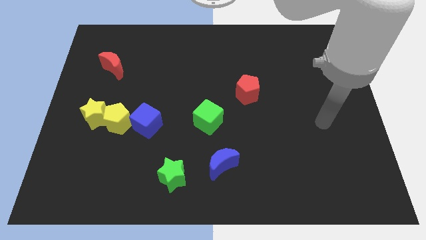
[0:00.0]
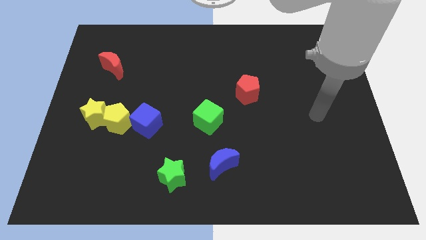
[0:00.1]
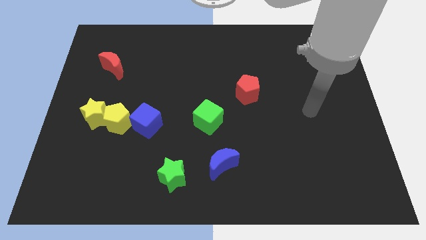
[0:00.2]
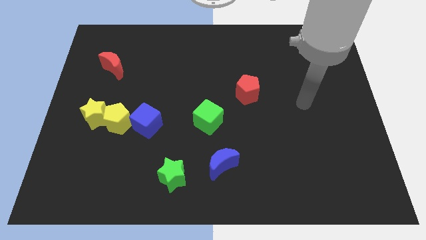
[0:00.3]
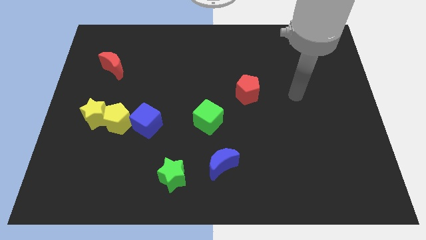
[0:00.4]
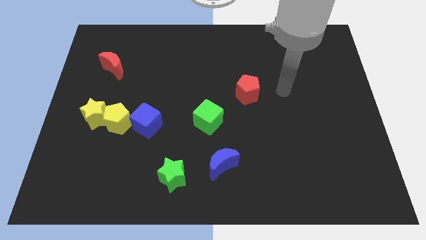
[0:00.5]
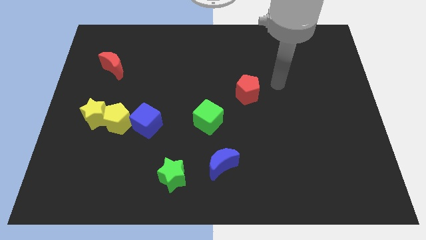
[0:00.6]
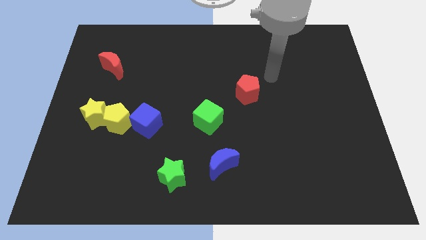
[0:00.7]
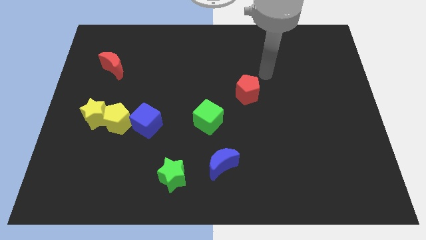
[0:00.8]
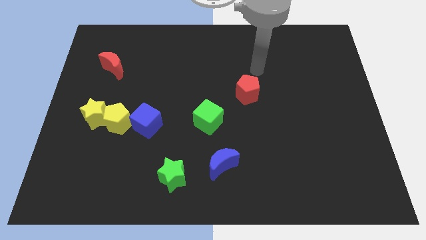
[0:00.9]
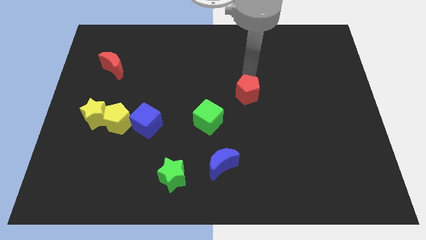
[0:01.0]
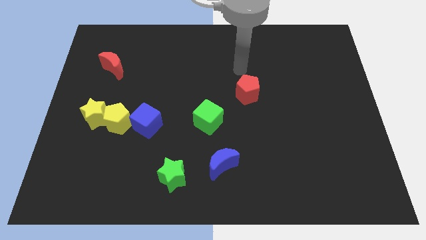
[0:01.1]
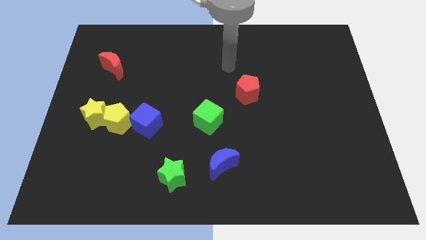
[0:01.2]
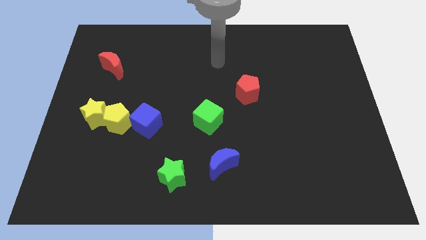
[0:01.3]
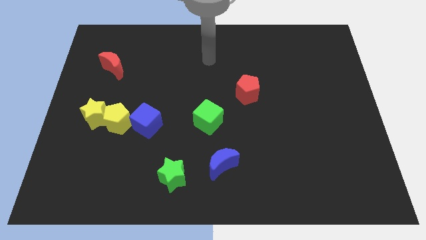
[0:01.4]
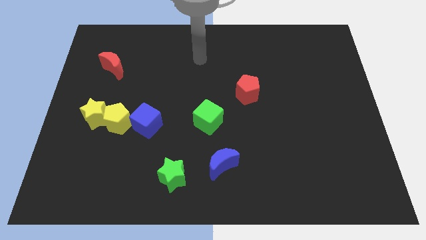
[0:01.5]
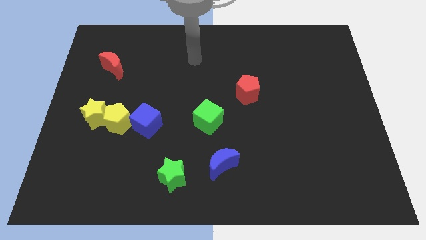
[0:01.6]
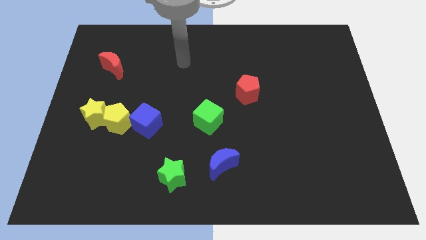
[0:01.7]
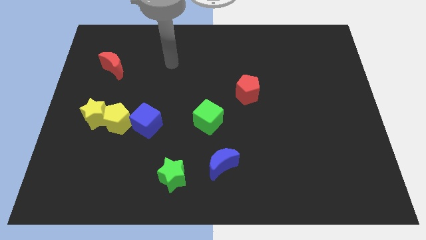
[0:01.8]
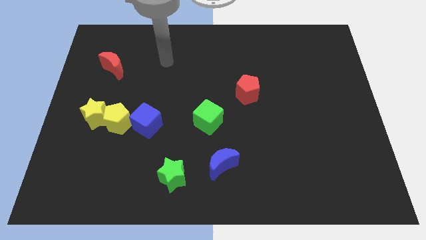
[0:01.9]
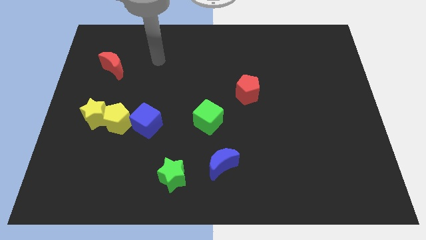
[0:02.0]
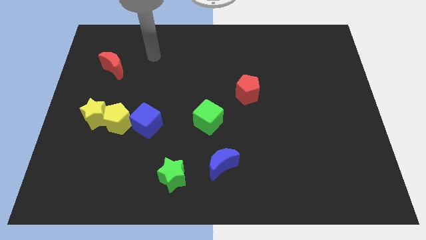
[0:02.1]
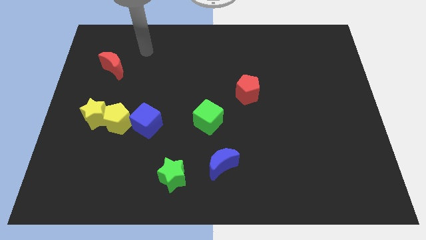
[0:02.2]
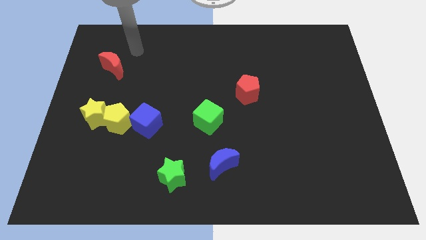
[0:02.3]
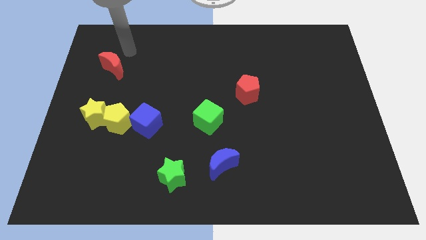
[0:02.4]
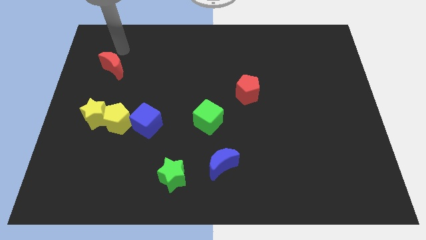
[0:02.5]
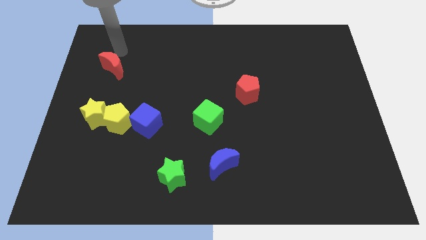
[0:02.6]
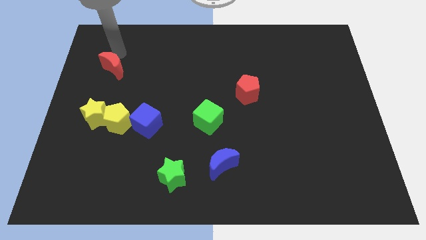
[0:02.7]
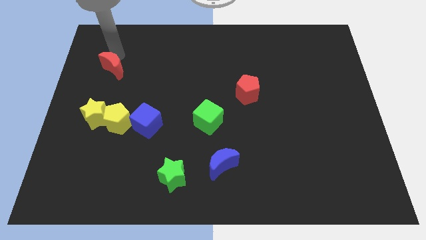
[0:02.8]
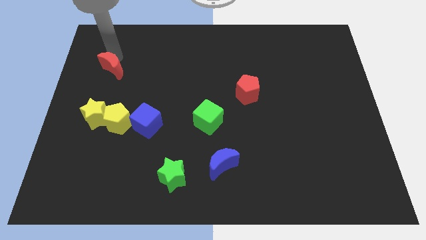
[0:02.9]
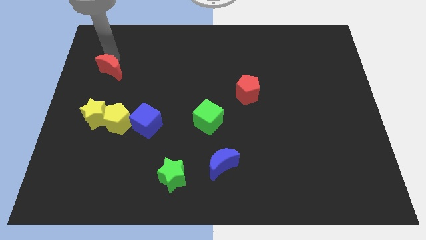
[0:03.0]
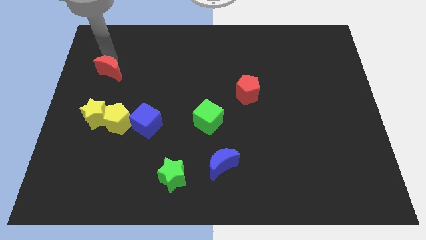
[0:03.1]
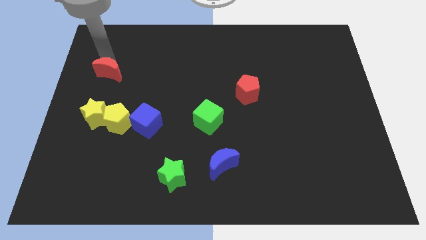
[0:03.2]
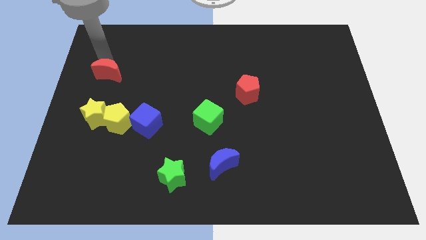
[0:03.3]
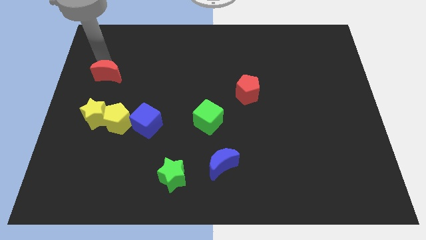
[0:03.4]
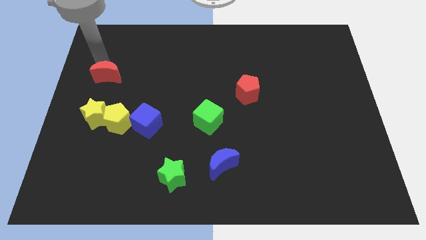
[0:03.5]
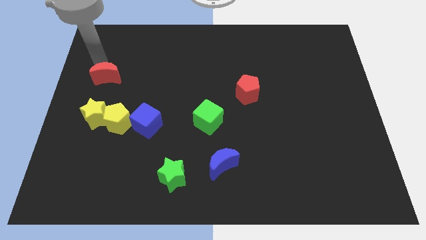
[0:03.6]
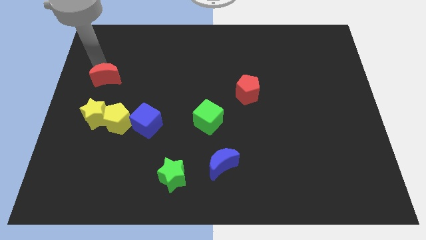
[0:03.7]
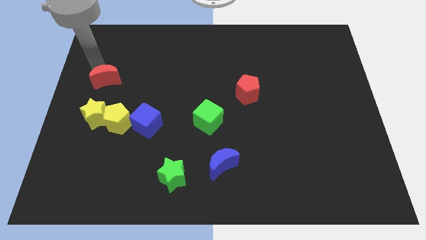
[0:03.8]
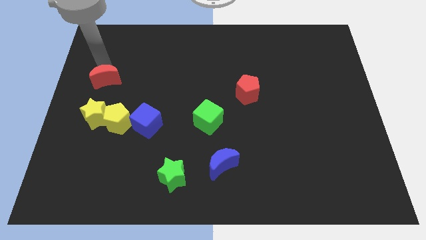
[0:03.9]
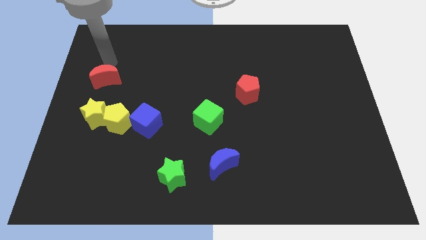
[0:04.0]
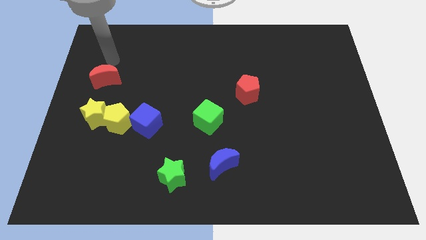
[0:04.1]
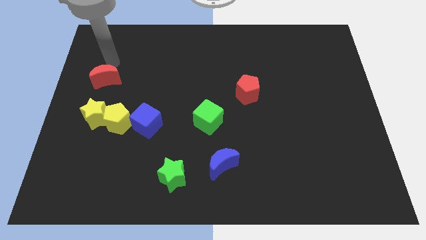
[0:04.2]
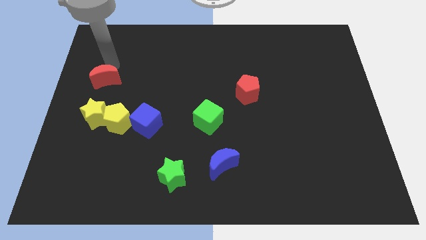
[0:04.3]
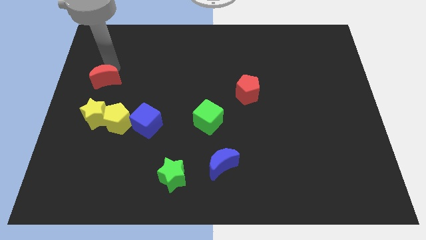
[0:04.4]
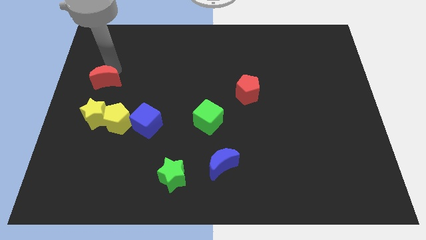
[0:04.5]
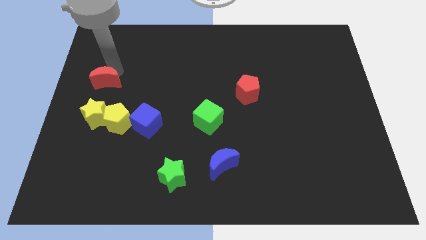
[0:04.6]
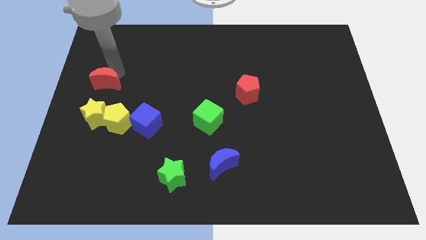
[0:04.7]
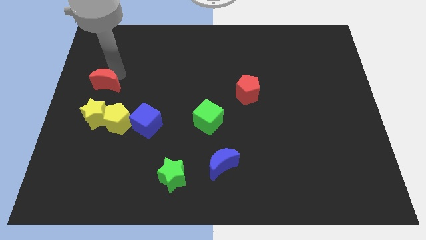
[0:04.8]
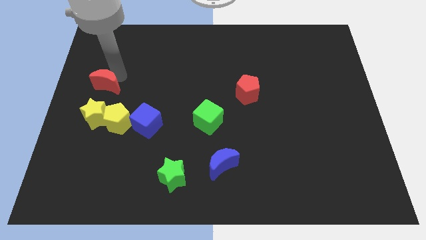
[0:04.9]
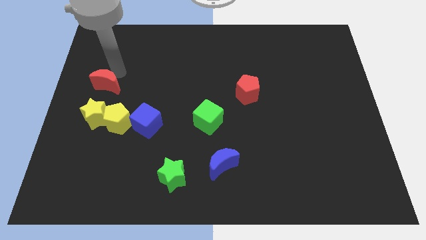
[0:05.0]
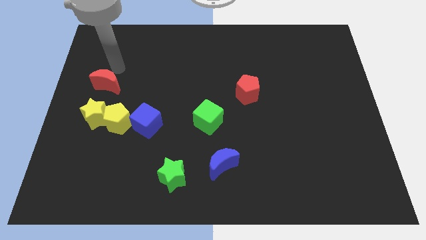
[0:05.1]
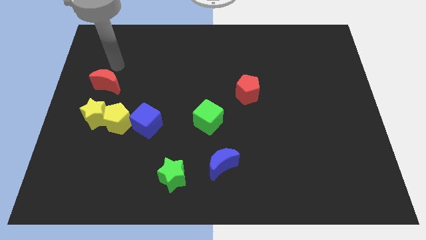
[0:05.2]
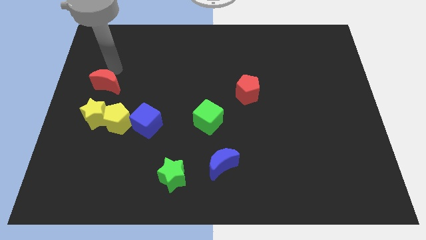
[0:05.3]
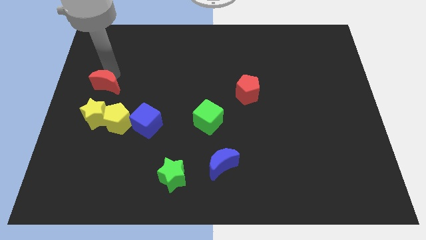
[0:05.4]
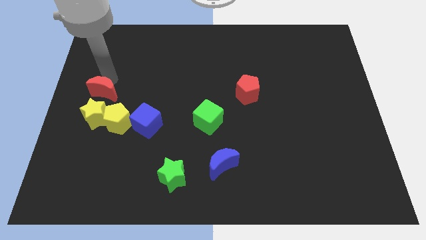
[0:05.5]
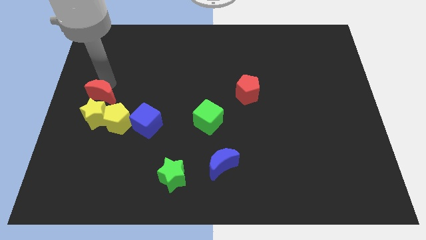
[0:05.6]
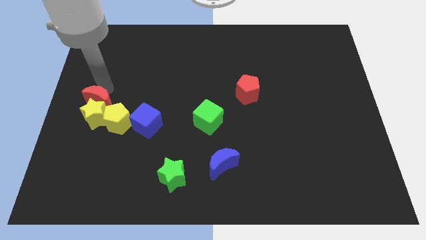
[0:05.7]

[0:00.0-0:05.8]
move the red moon towards the yellow star

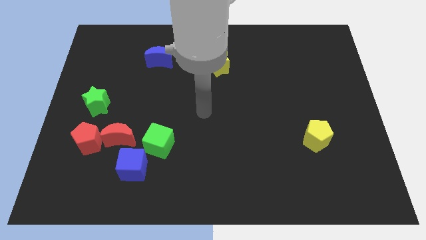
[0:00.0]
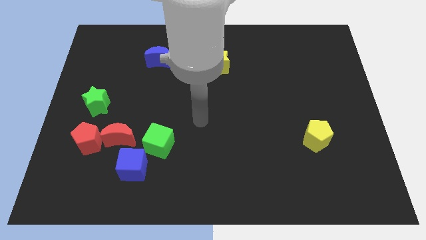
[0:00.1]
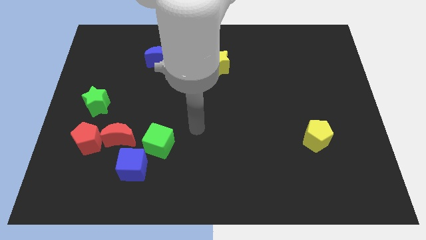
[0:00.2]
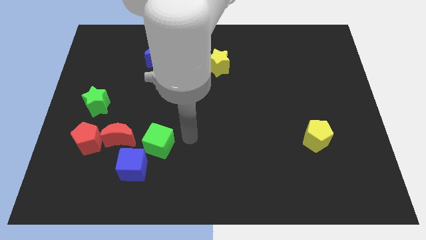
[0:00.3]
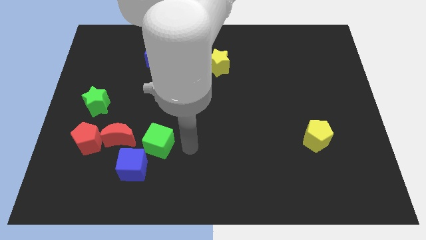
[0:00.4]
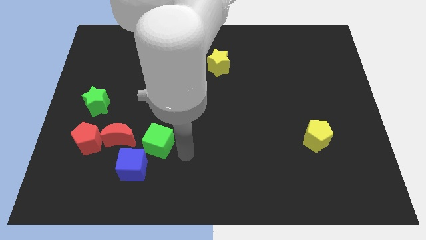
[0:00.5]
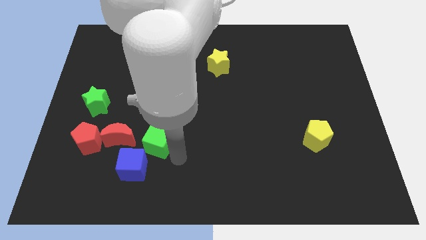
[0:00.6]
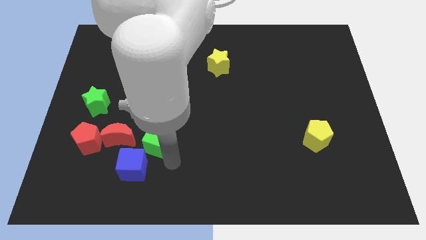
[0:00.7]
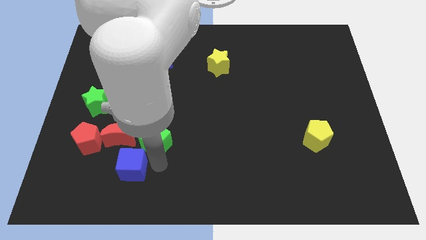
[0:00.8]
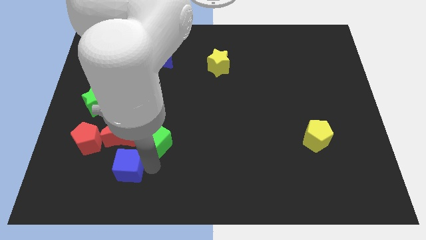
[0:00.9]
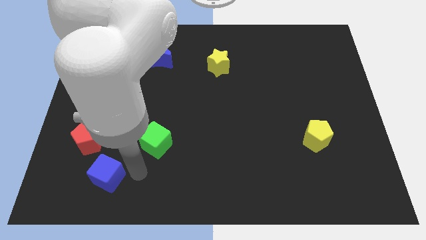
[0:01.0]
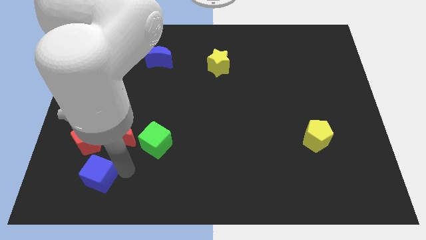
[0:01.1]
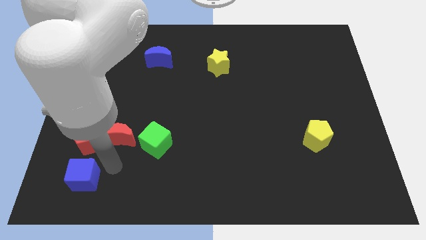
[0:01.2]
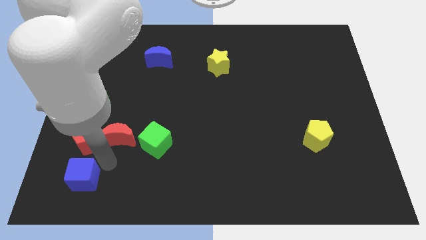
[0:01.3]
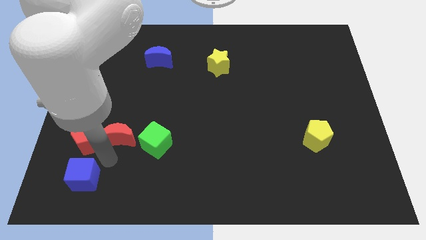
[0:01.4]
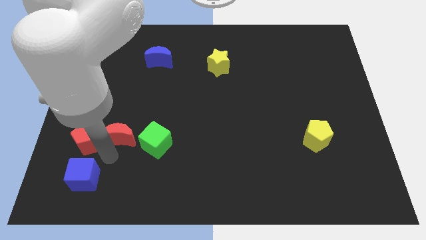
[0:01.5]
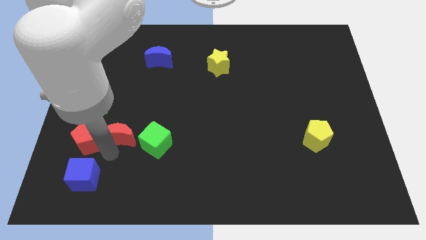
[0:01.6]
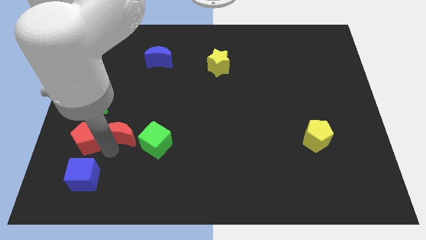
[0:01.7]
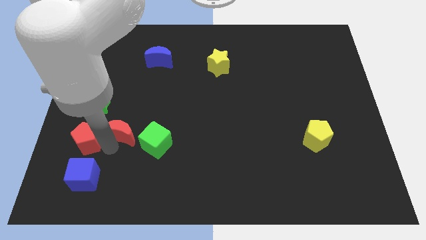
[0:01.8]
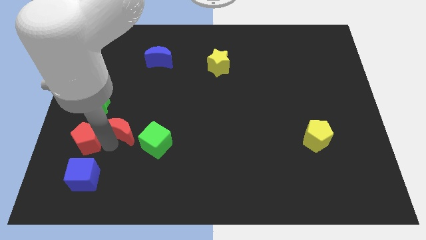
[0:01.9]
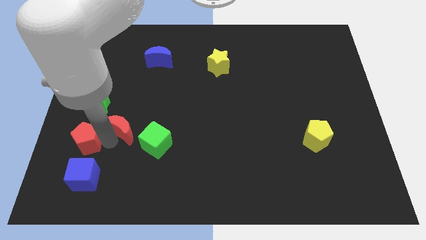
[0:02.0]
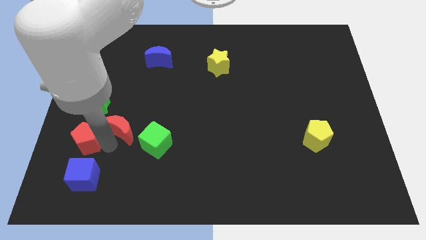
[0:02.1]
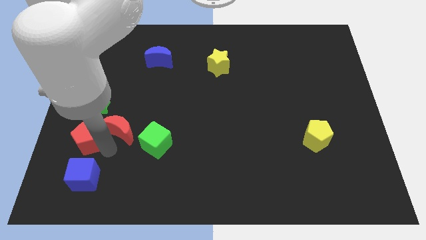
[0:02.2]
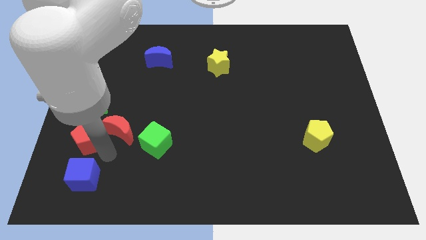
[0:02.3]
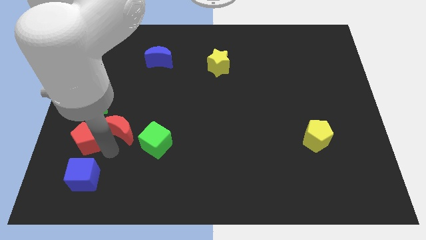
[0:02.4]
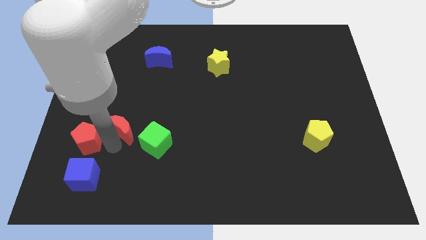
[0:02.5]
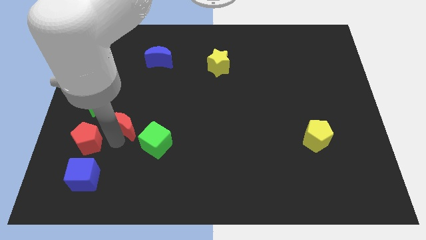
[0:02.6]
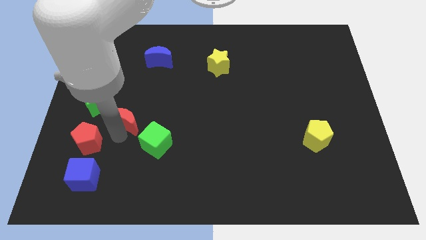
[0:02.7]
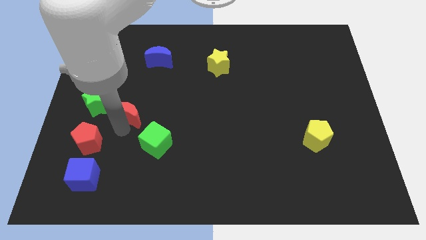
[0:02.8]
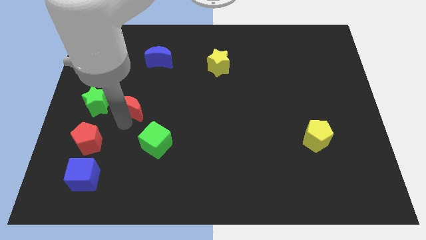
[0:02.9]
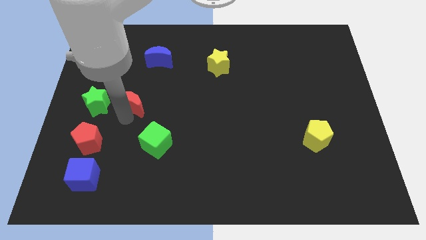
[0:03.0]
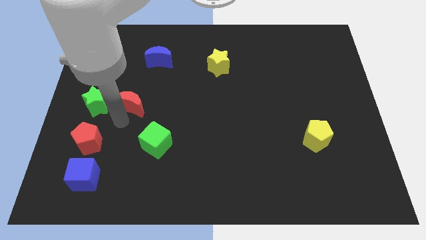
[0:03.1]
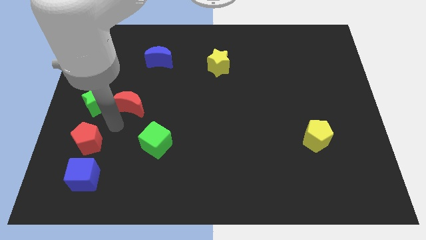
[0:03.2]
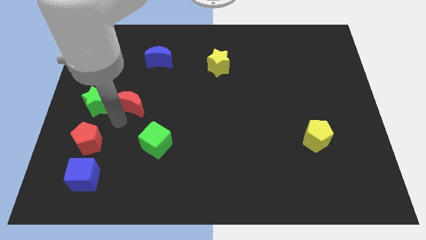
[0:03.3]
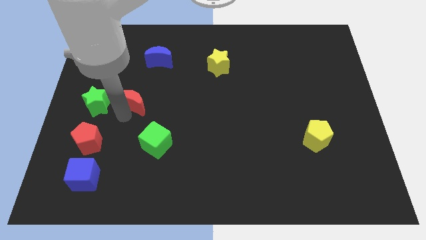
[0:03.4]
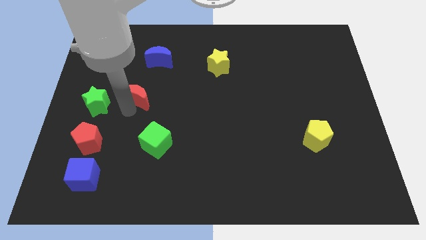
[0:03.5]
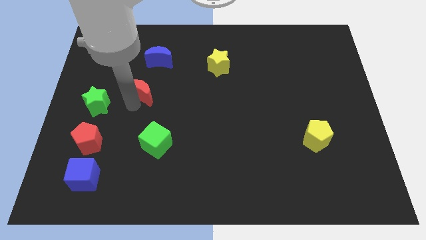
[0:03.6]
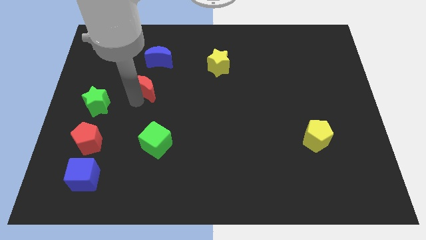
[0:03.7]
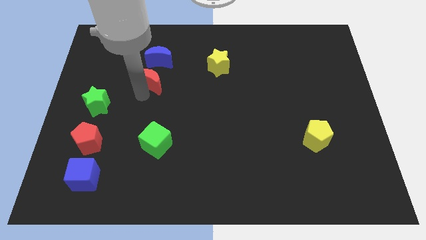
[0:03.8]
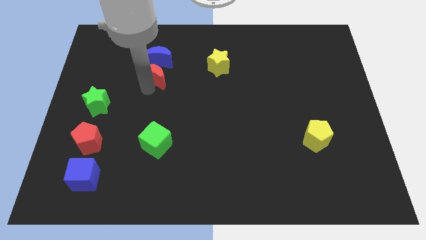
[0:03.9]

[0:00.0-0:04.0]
move the red moon next to the blue moon
